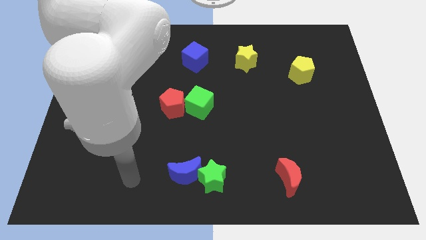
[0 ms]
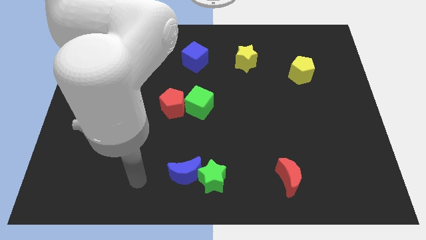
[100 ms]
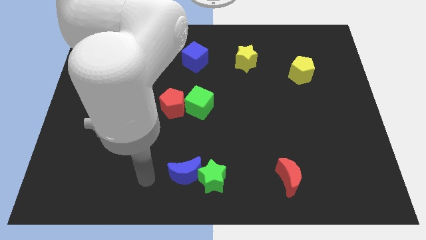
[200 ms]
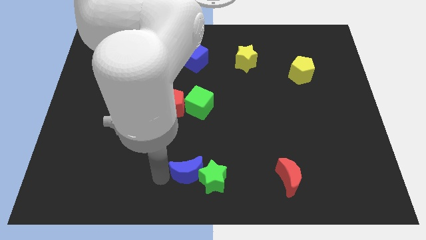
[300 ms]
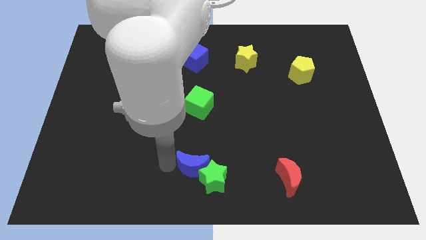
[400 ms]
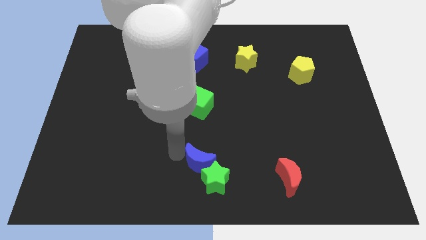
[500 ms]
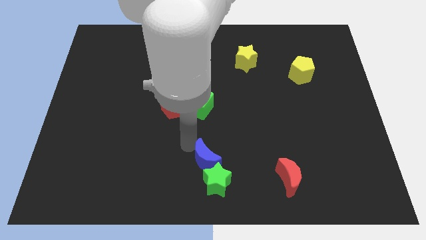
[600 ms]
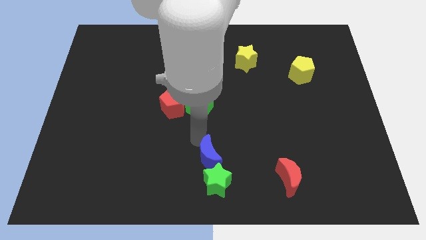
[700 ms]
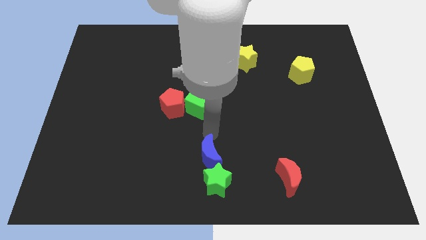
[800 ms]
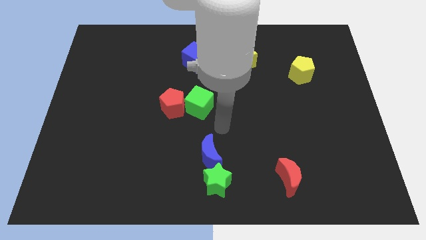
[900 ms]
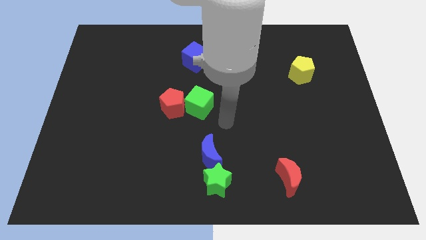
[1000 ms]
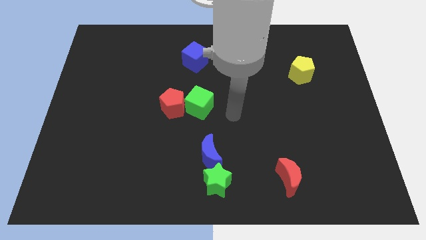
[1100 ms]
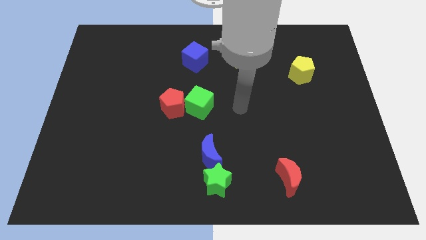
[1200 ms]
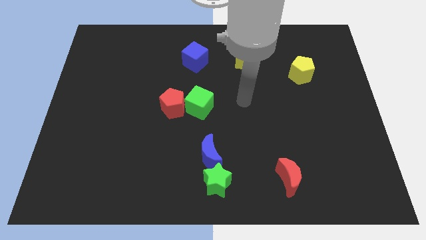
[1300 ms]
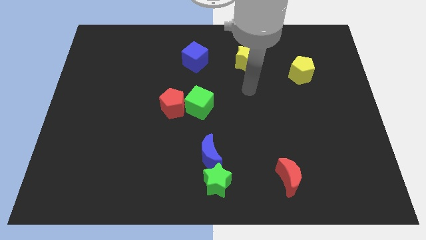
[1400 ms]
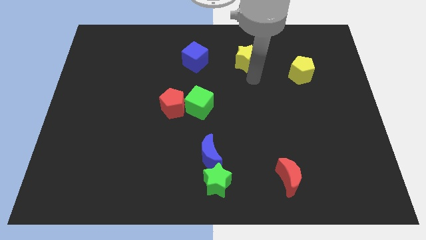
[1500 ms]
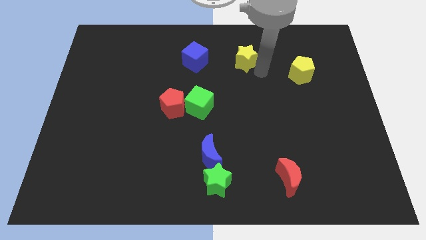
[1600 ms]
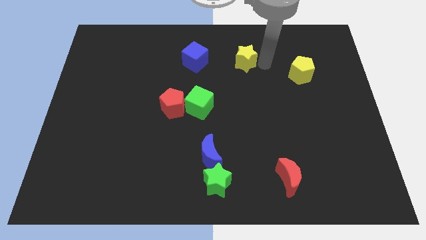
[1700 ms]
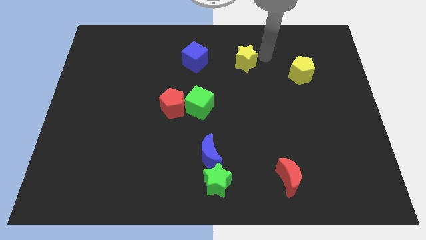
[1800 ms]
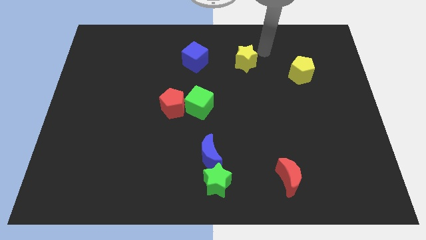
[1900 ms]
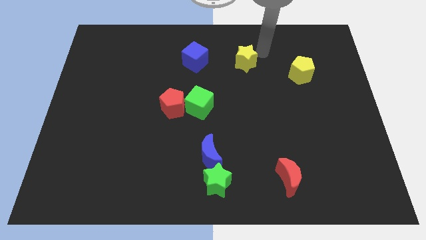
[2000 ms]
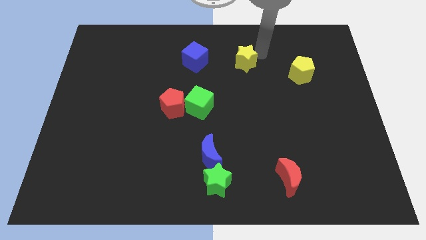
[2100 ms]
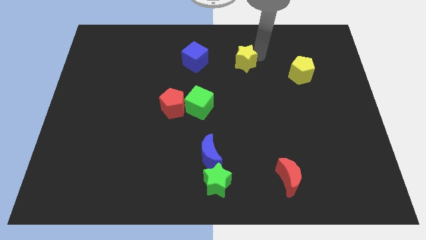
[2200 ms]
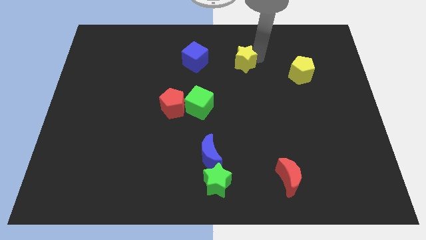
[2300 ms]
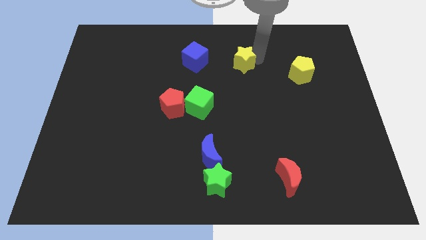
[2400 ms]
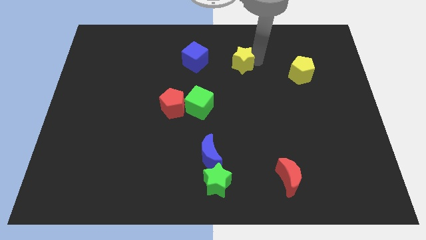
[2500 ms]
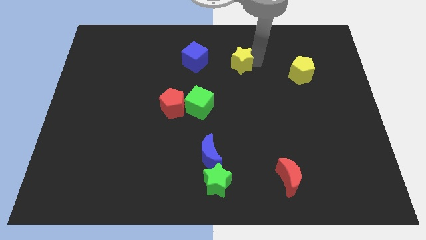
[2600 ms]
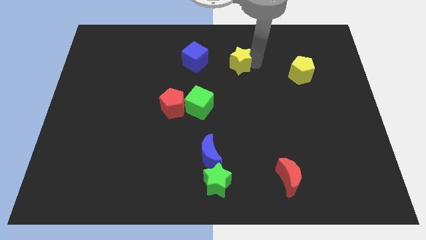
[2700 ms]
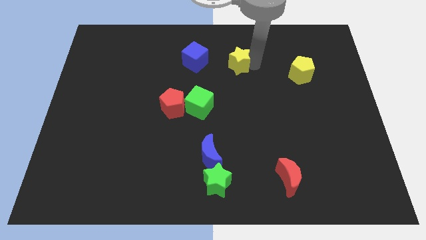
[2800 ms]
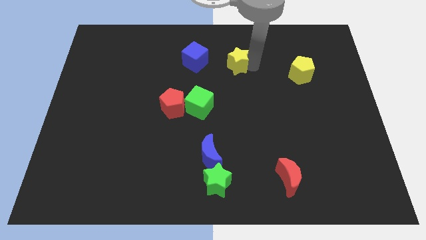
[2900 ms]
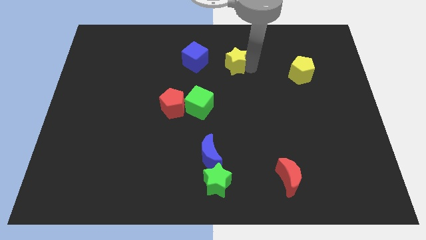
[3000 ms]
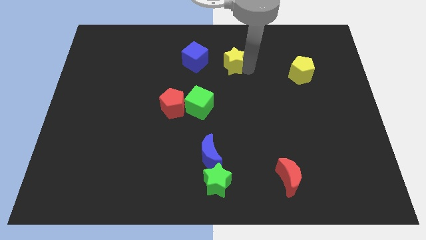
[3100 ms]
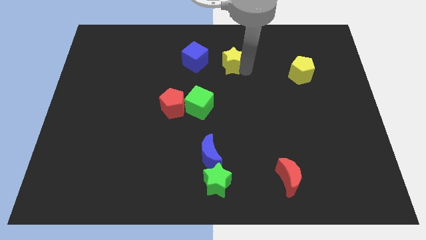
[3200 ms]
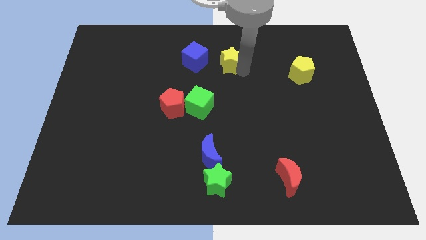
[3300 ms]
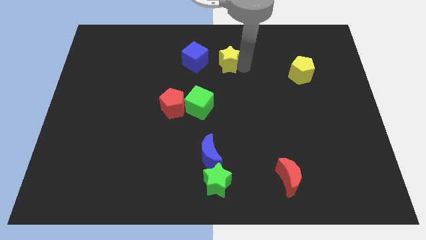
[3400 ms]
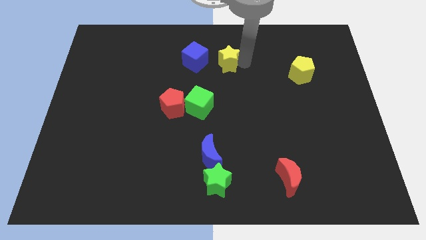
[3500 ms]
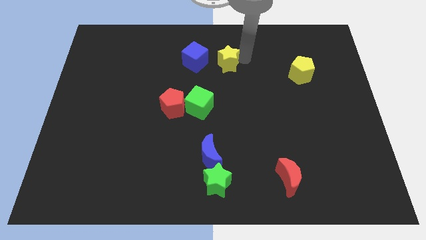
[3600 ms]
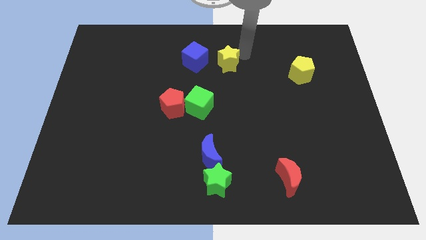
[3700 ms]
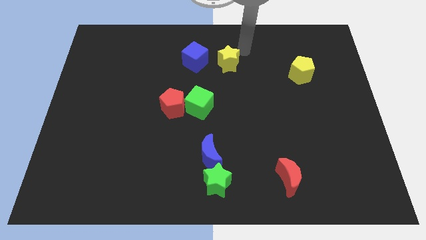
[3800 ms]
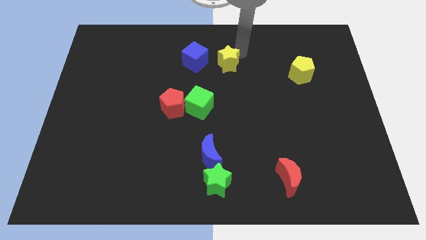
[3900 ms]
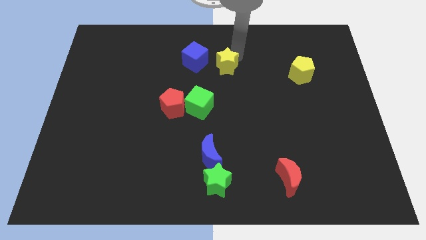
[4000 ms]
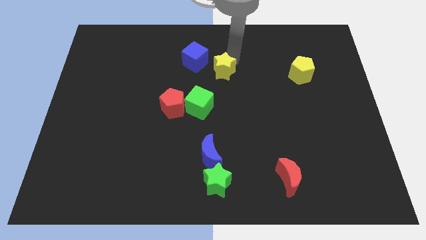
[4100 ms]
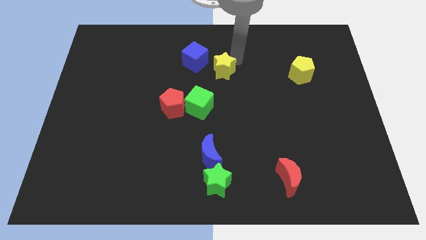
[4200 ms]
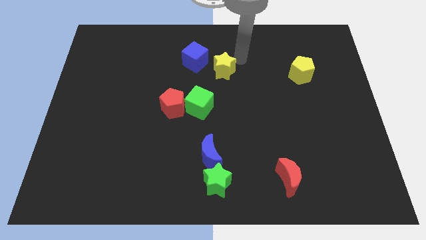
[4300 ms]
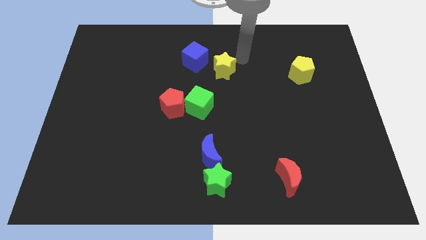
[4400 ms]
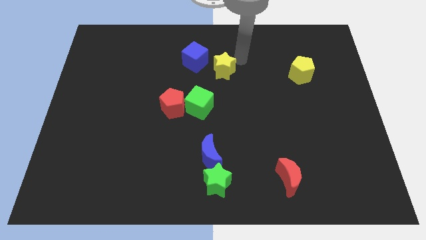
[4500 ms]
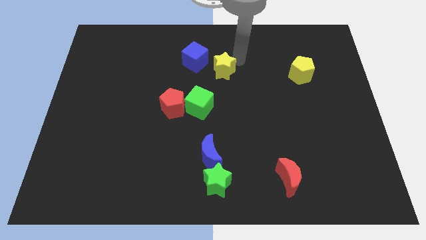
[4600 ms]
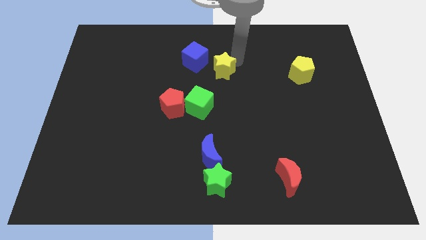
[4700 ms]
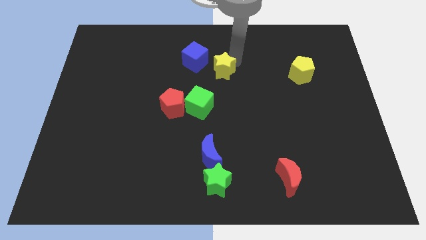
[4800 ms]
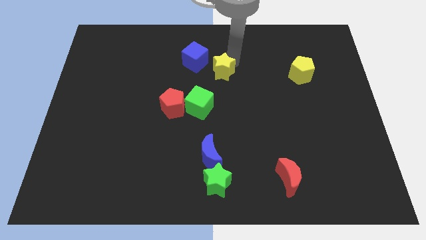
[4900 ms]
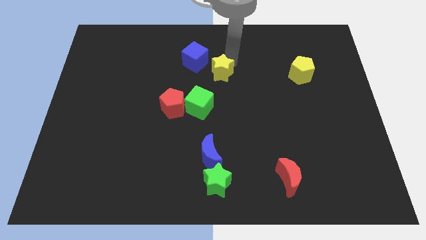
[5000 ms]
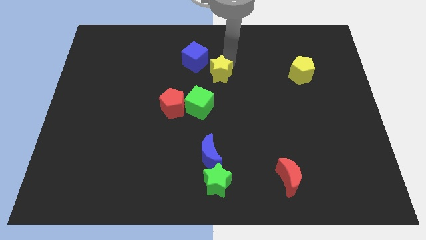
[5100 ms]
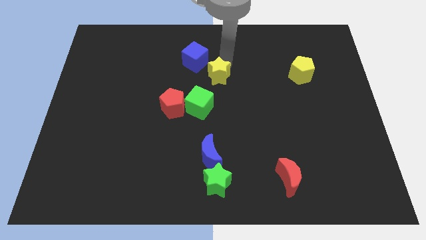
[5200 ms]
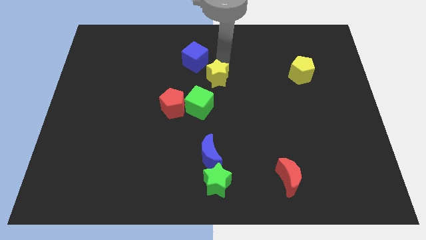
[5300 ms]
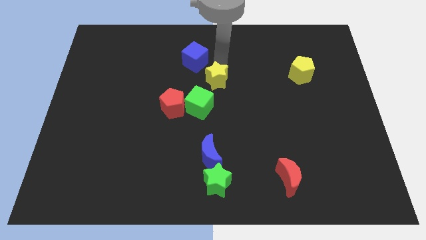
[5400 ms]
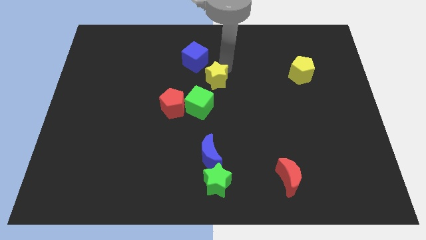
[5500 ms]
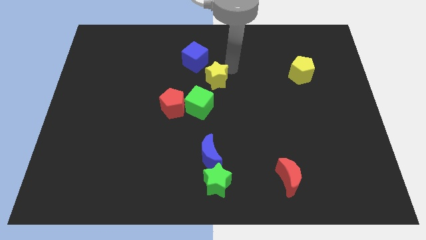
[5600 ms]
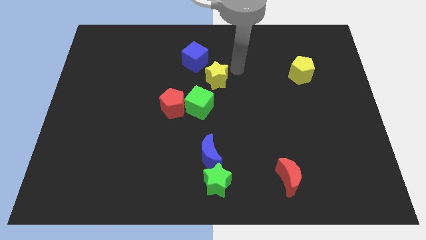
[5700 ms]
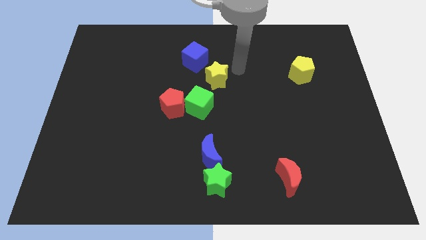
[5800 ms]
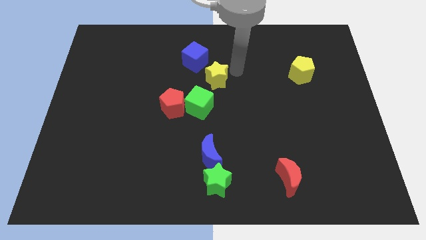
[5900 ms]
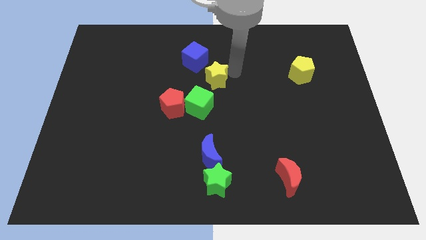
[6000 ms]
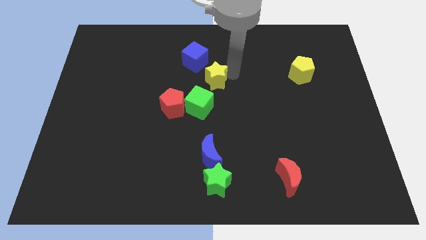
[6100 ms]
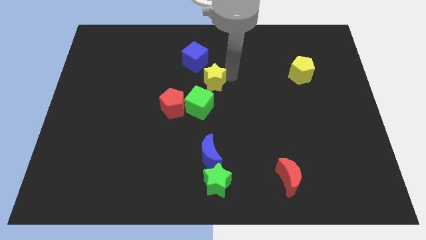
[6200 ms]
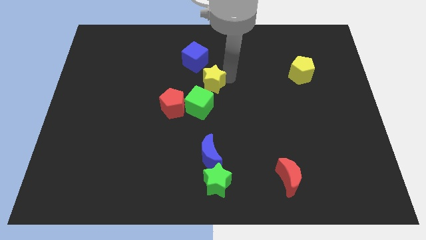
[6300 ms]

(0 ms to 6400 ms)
push the yellow star to the bottom of the blue cube
